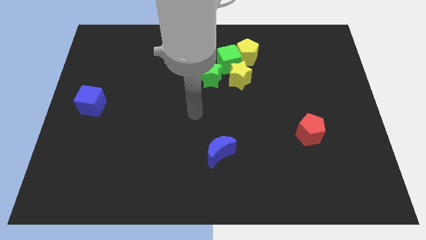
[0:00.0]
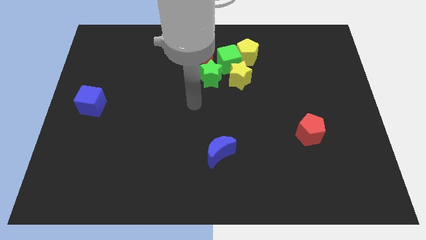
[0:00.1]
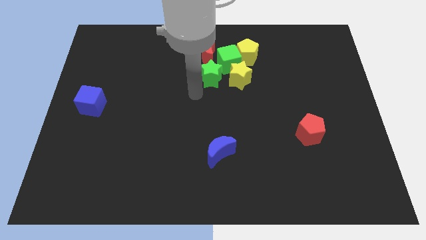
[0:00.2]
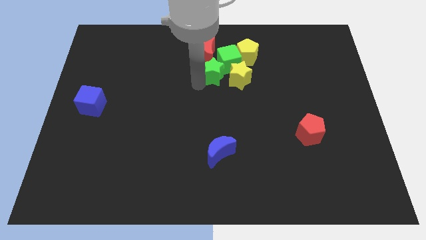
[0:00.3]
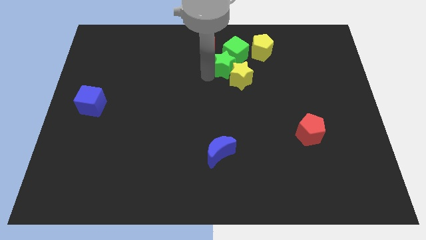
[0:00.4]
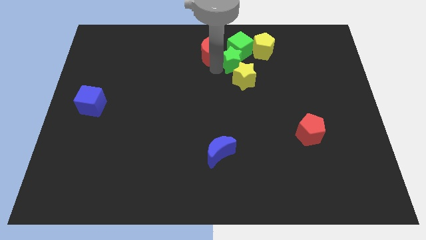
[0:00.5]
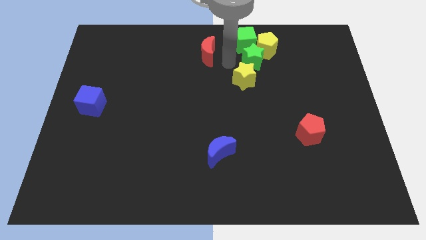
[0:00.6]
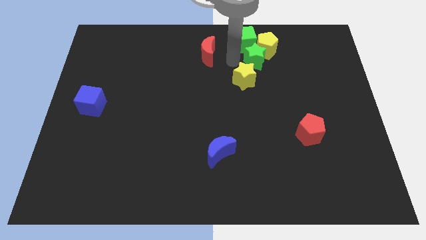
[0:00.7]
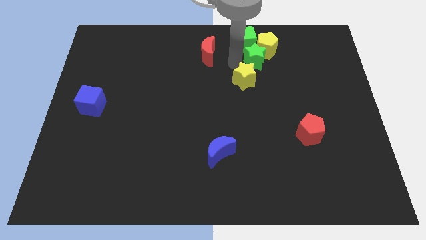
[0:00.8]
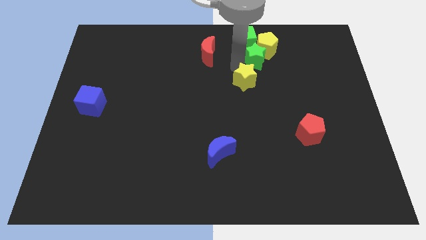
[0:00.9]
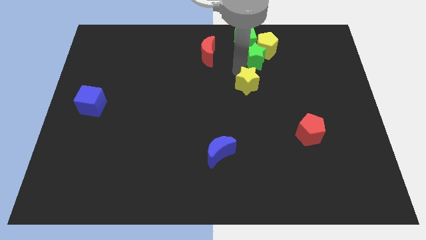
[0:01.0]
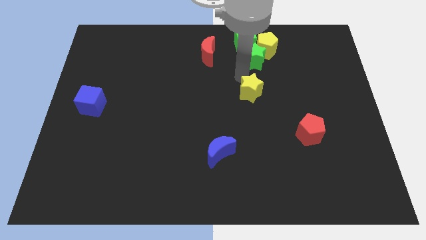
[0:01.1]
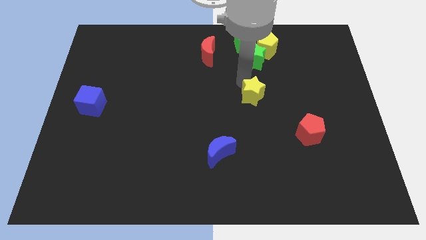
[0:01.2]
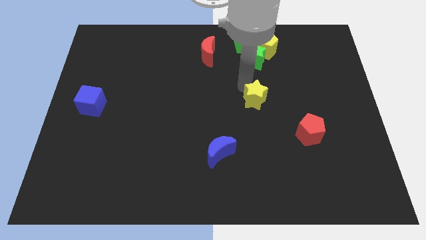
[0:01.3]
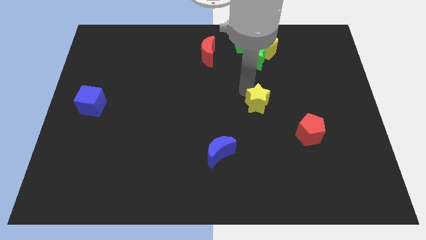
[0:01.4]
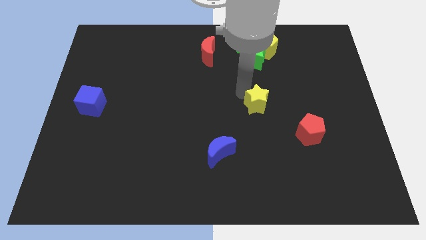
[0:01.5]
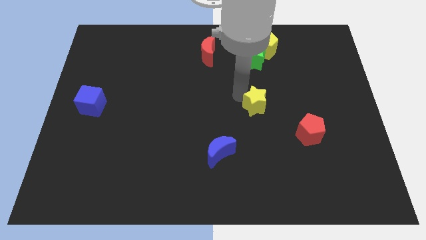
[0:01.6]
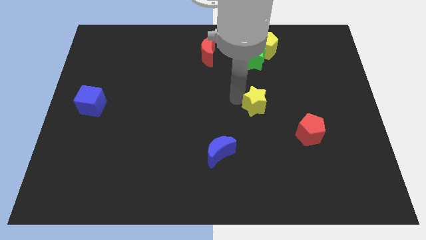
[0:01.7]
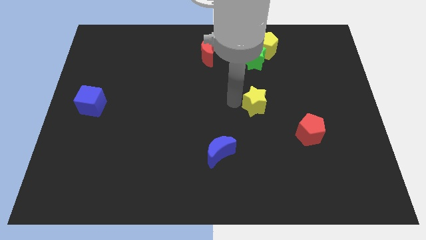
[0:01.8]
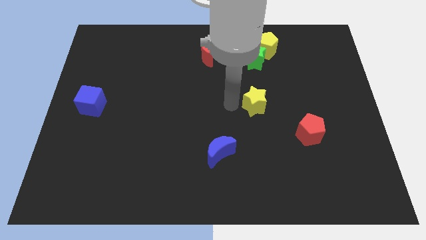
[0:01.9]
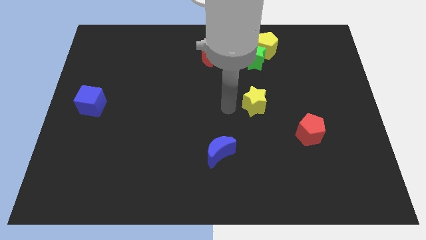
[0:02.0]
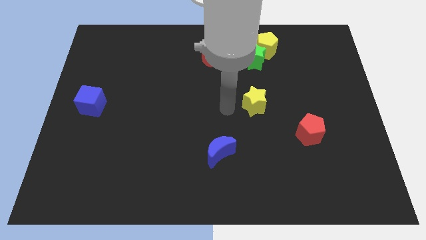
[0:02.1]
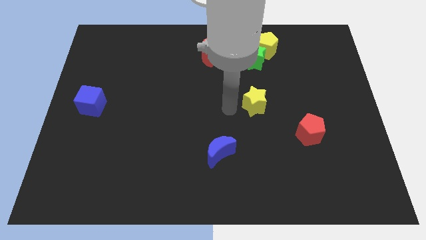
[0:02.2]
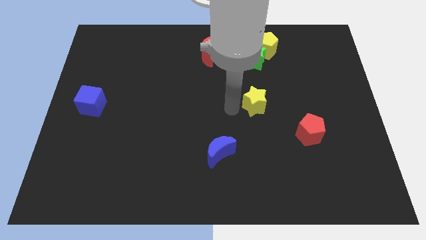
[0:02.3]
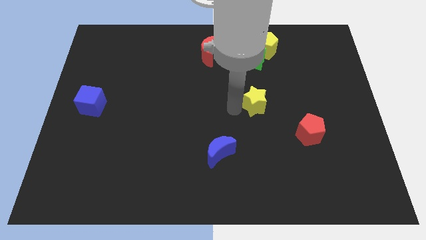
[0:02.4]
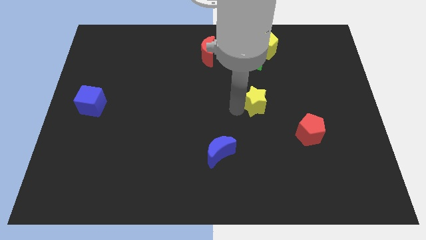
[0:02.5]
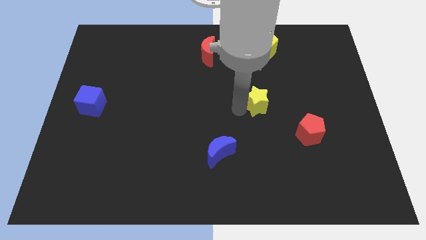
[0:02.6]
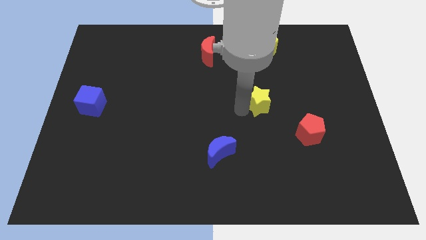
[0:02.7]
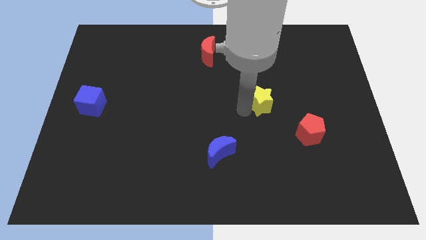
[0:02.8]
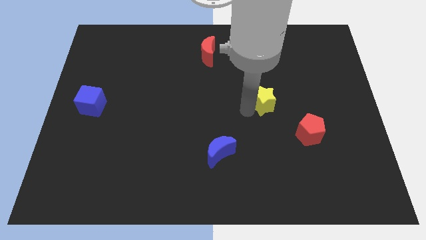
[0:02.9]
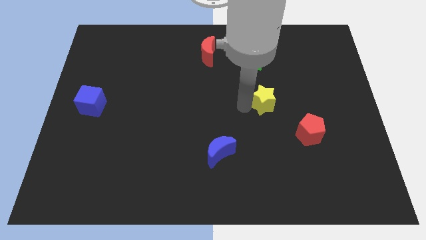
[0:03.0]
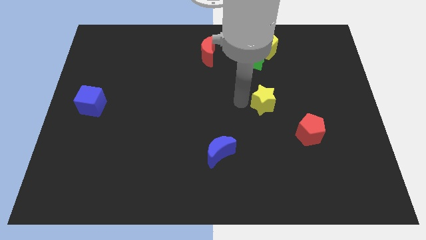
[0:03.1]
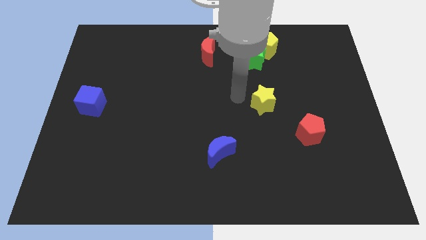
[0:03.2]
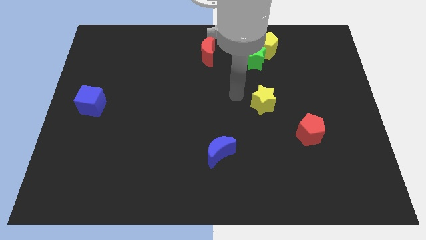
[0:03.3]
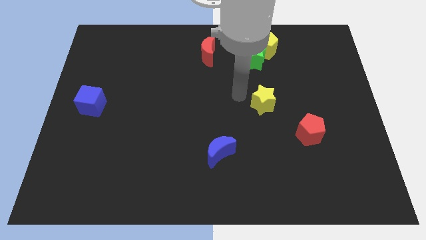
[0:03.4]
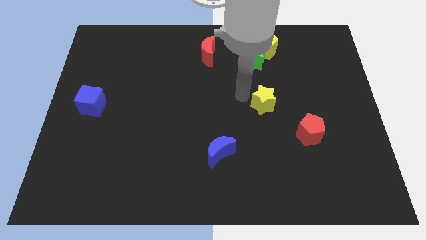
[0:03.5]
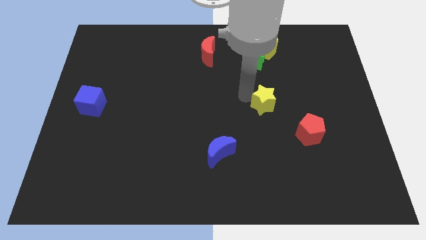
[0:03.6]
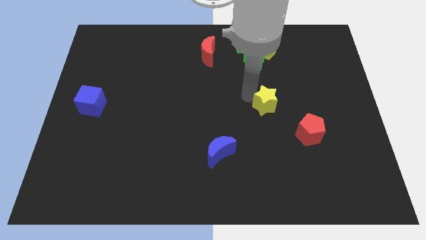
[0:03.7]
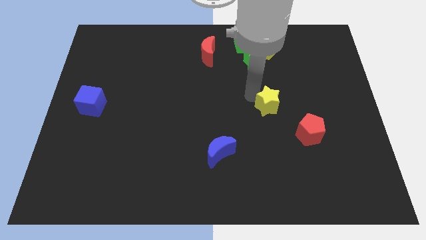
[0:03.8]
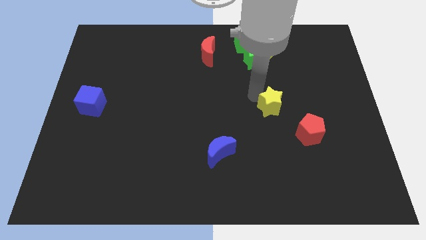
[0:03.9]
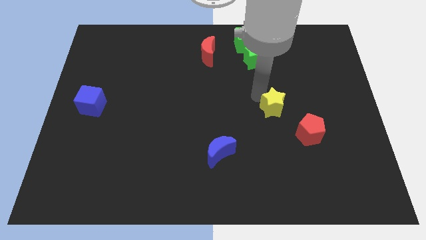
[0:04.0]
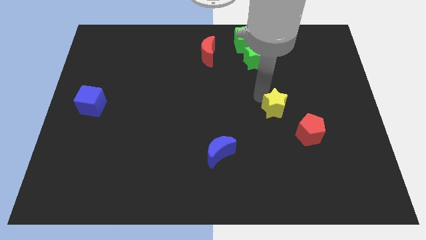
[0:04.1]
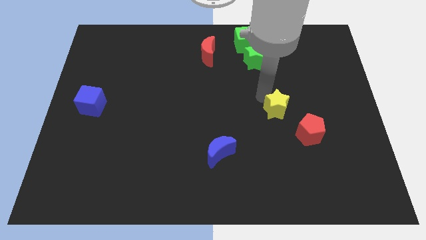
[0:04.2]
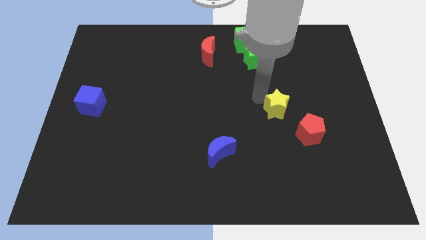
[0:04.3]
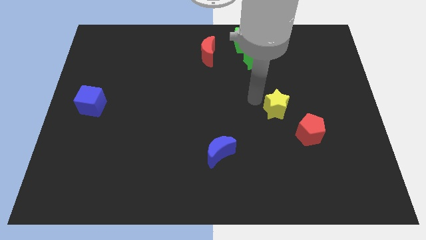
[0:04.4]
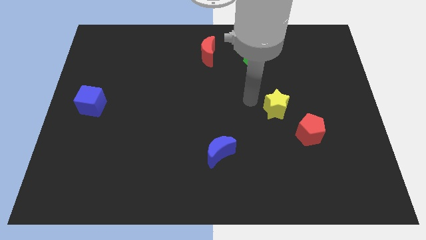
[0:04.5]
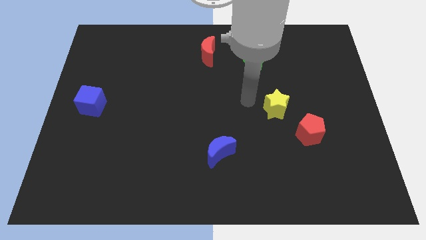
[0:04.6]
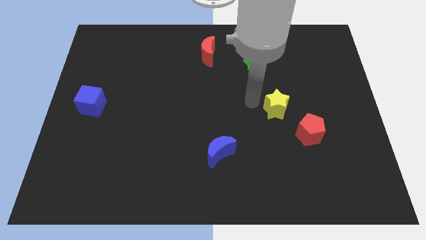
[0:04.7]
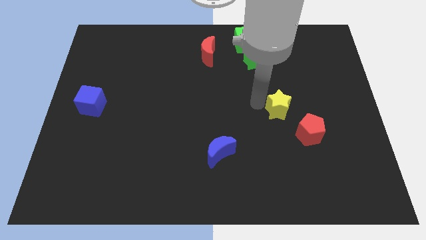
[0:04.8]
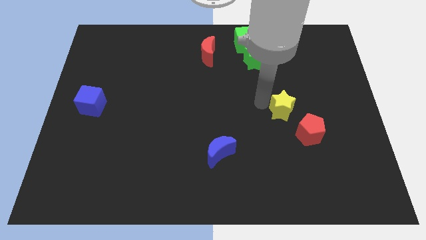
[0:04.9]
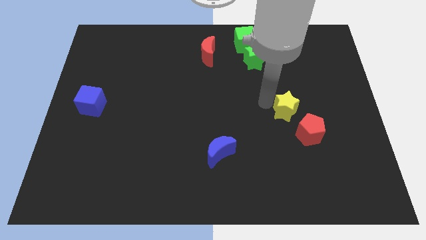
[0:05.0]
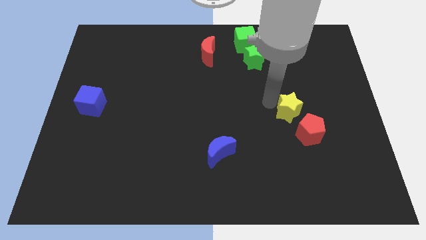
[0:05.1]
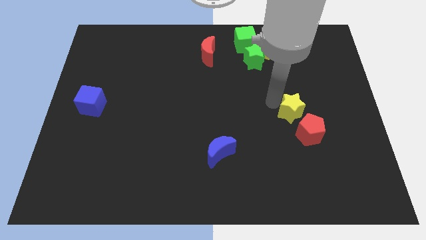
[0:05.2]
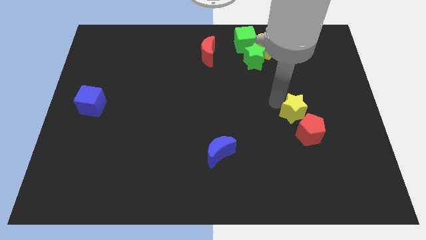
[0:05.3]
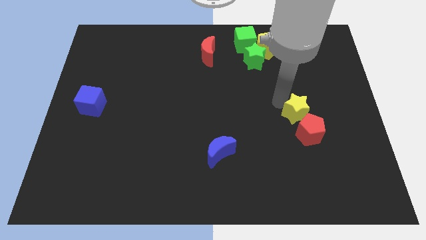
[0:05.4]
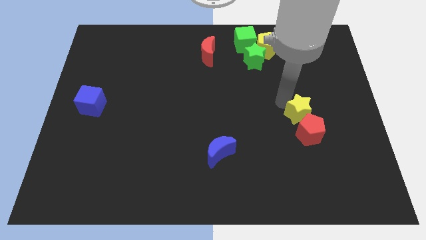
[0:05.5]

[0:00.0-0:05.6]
put the yellow star to the red pentagon

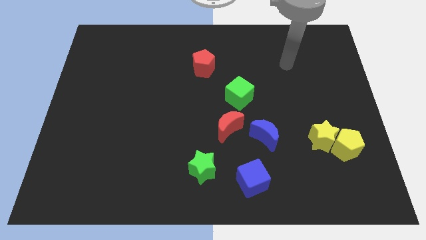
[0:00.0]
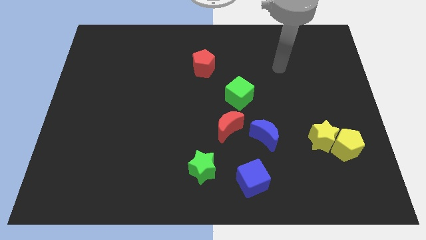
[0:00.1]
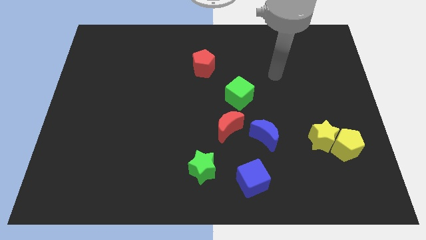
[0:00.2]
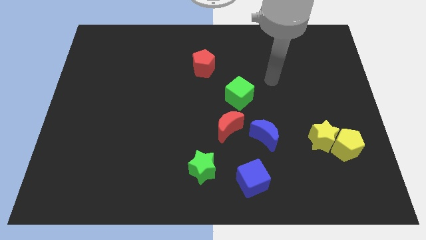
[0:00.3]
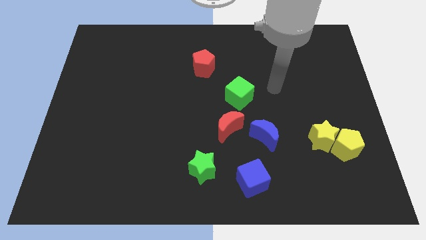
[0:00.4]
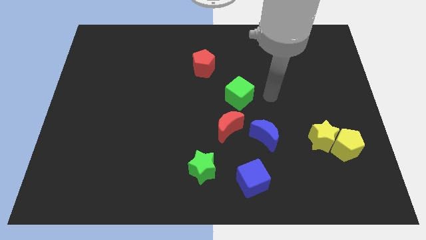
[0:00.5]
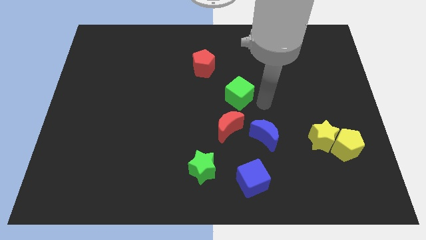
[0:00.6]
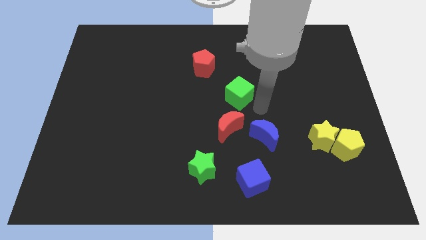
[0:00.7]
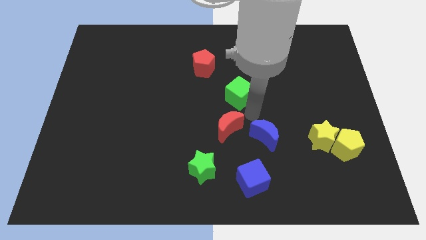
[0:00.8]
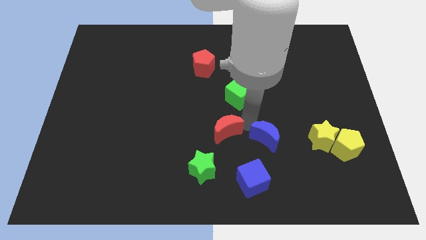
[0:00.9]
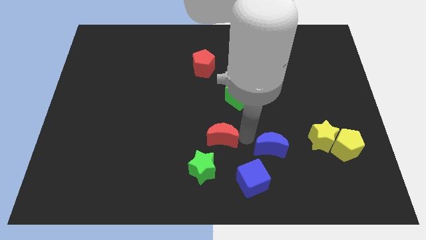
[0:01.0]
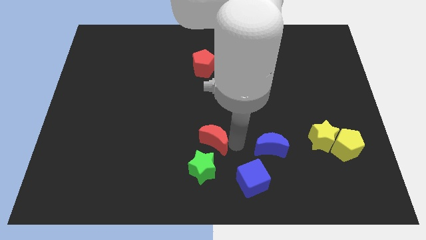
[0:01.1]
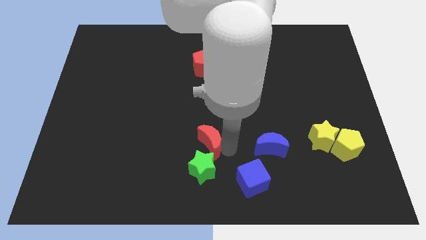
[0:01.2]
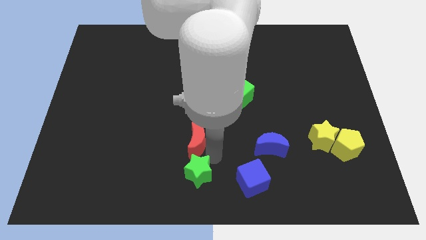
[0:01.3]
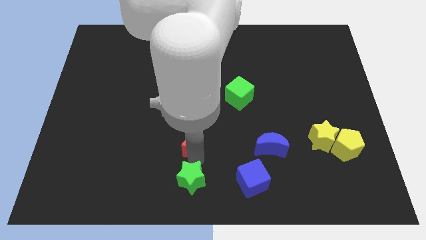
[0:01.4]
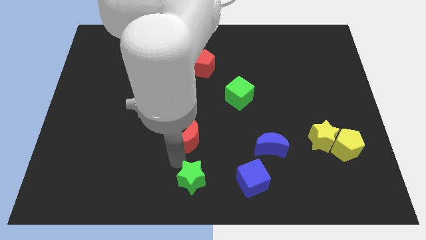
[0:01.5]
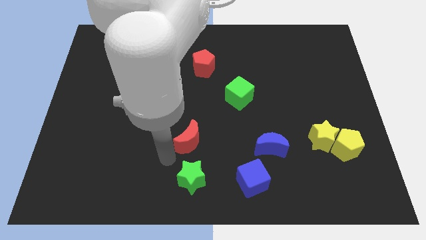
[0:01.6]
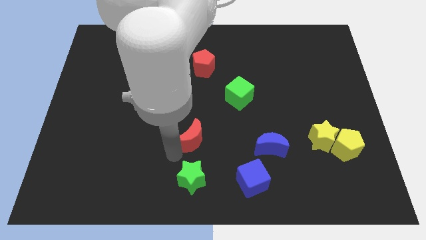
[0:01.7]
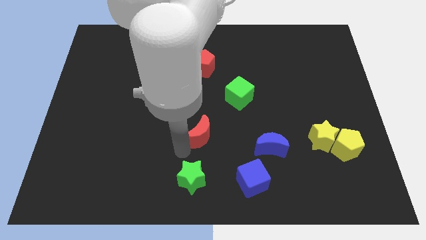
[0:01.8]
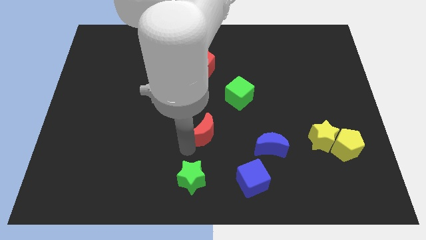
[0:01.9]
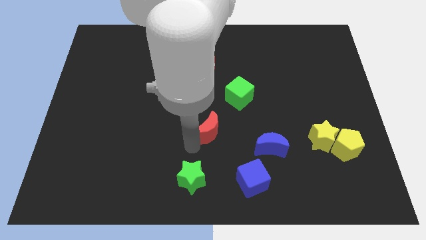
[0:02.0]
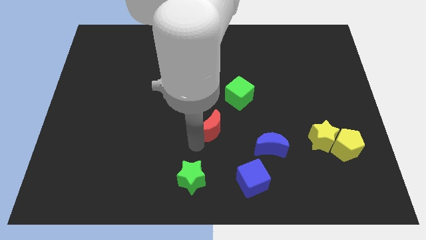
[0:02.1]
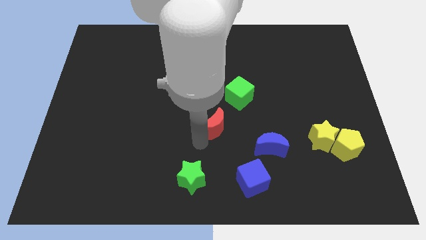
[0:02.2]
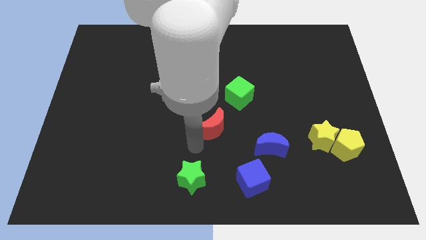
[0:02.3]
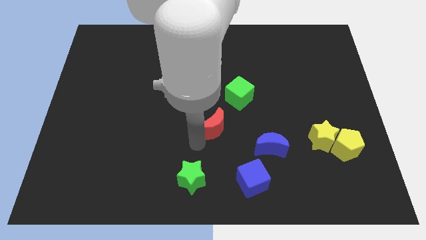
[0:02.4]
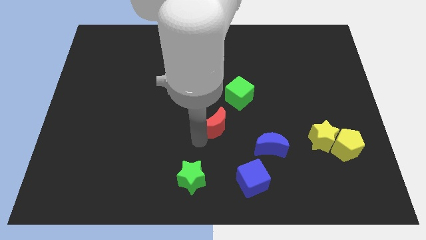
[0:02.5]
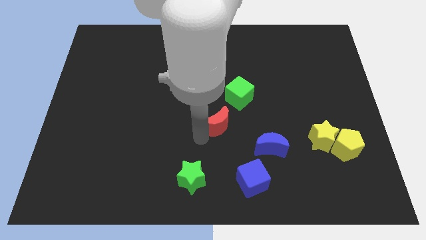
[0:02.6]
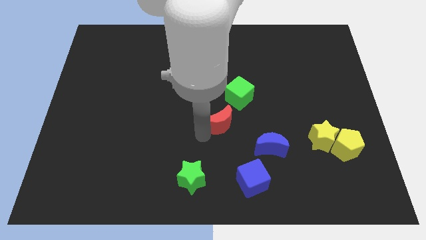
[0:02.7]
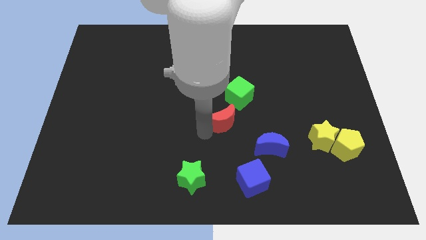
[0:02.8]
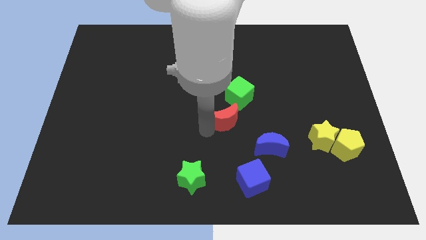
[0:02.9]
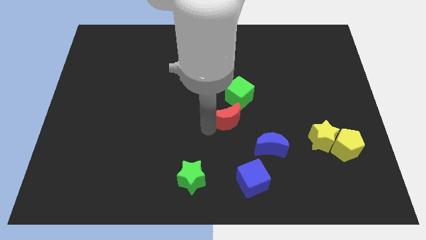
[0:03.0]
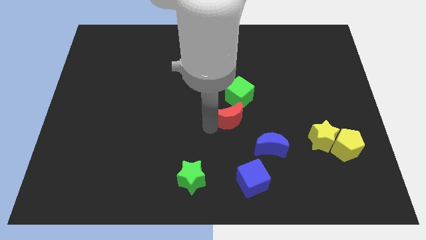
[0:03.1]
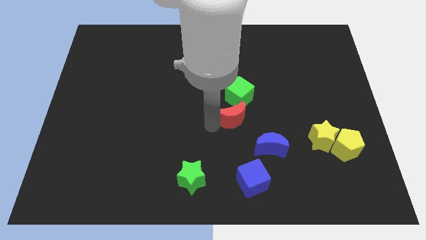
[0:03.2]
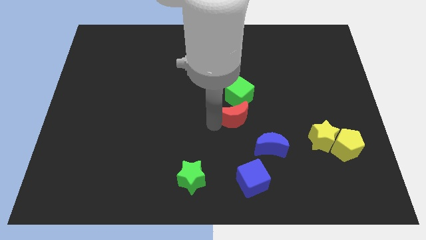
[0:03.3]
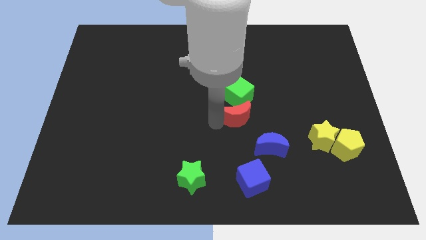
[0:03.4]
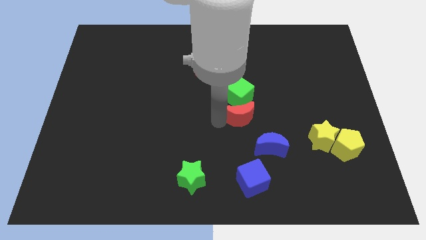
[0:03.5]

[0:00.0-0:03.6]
put the red moon towards the green cube
